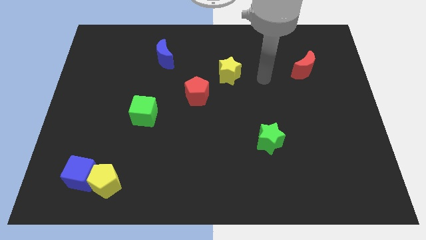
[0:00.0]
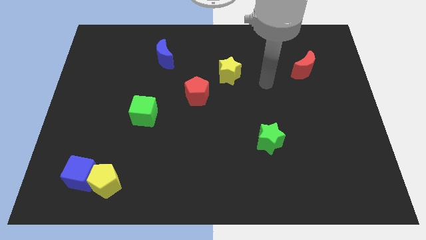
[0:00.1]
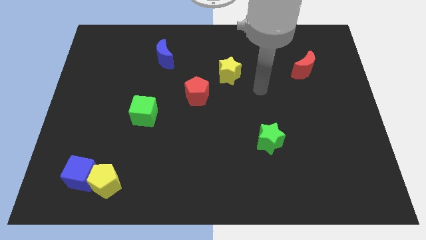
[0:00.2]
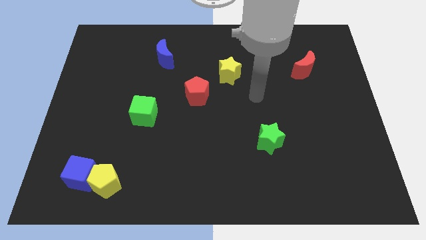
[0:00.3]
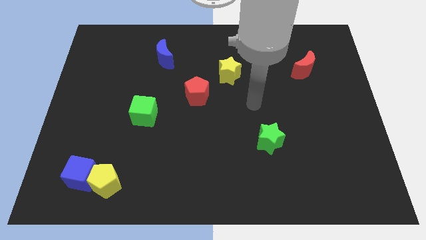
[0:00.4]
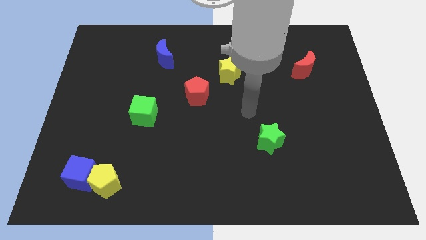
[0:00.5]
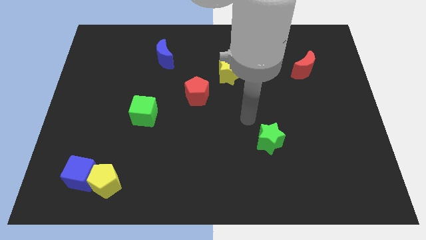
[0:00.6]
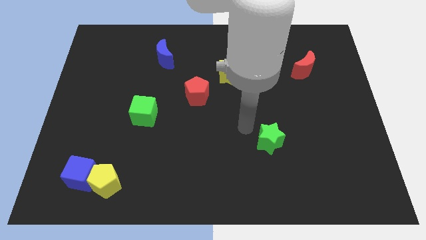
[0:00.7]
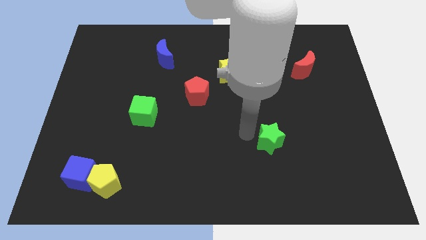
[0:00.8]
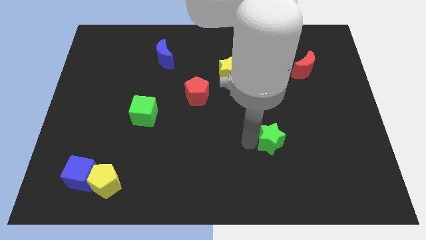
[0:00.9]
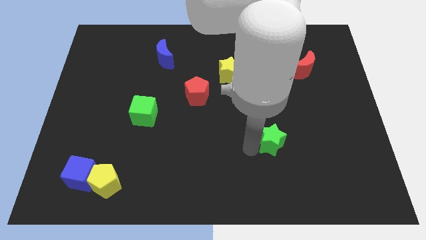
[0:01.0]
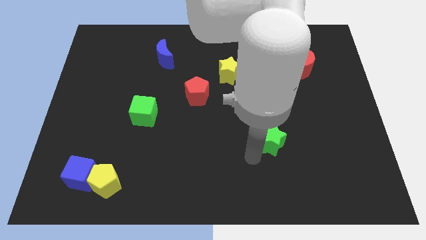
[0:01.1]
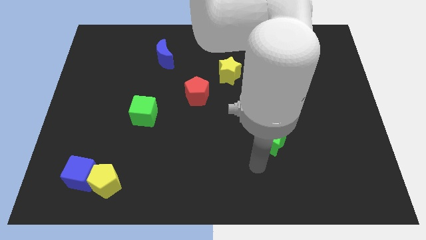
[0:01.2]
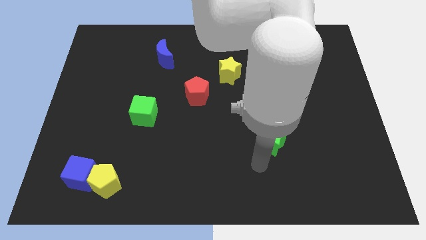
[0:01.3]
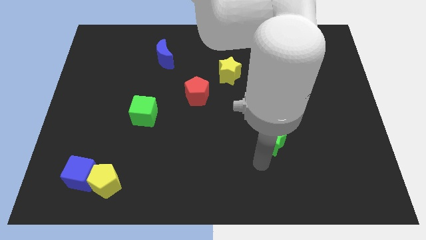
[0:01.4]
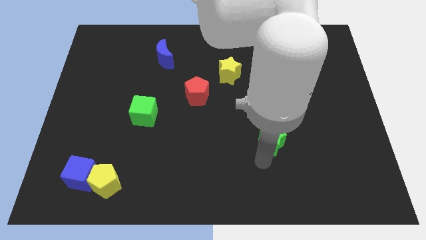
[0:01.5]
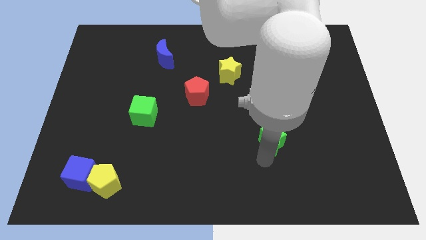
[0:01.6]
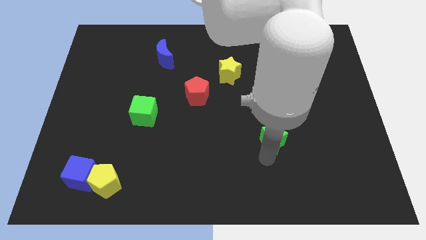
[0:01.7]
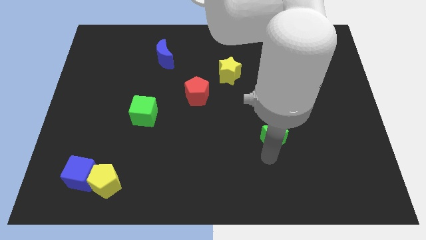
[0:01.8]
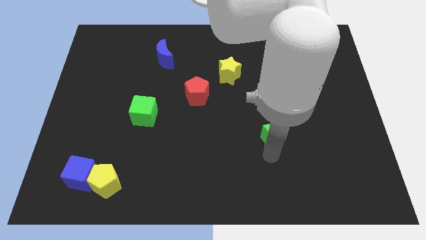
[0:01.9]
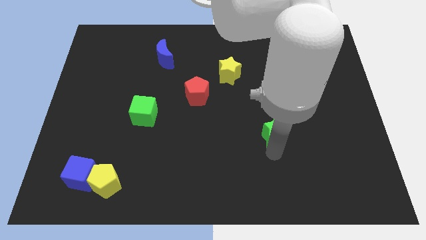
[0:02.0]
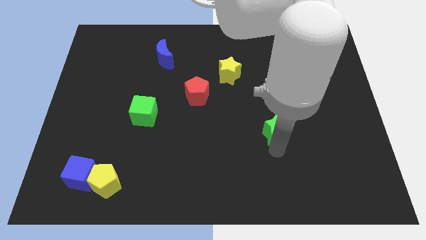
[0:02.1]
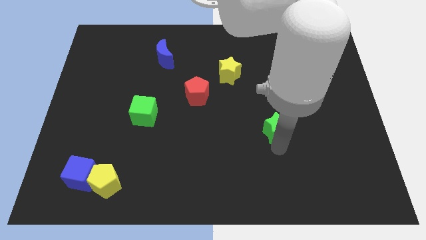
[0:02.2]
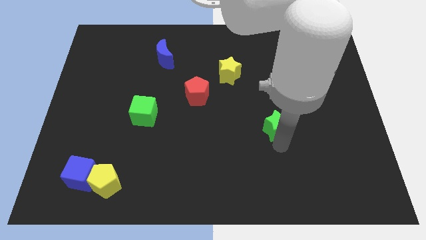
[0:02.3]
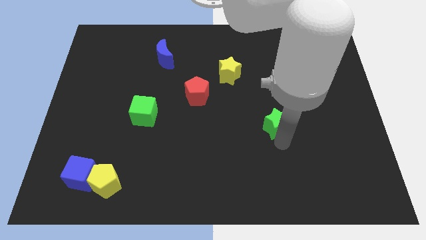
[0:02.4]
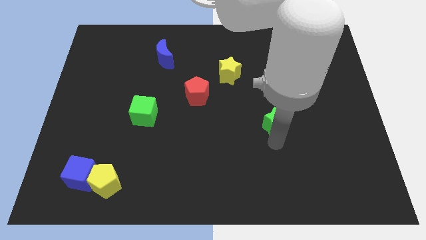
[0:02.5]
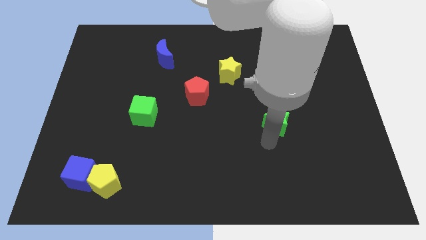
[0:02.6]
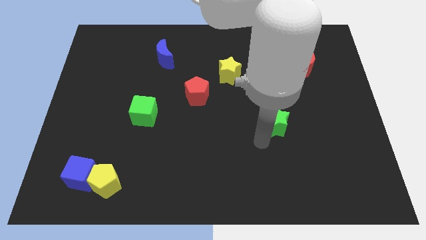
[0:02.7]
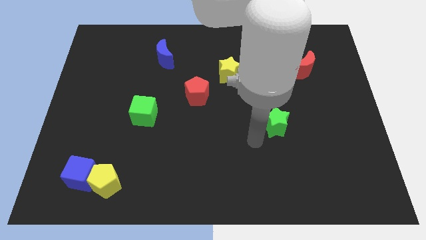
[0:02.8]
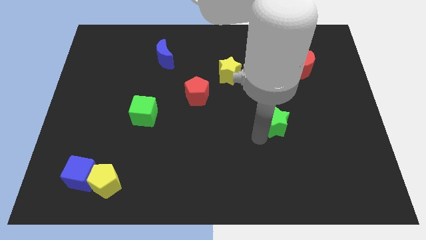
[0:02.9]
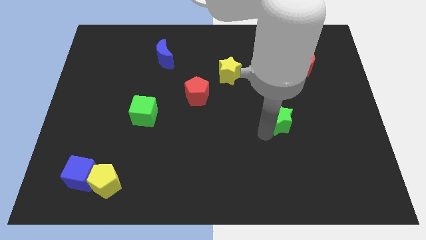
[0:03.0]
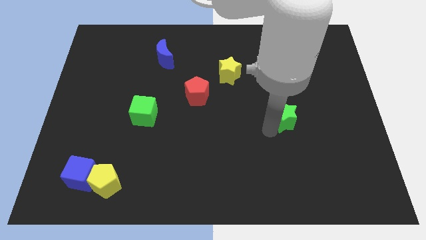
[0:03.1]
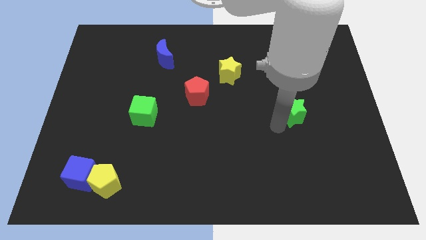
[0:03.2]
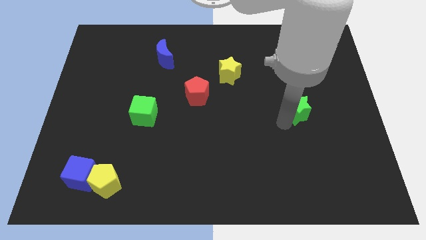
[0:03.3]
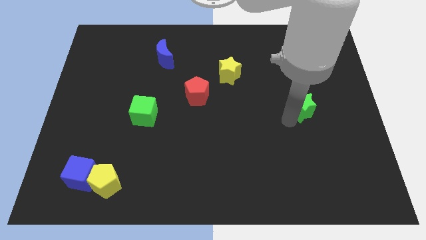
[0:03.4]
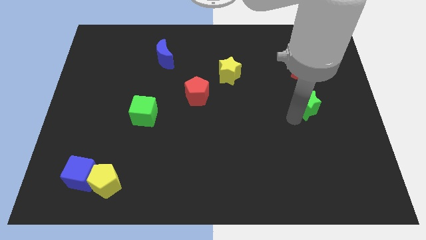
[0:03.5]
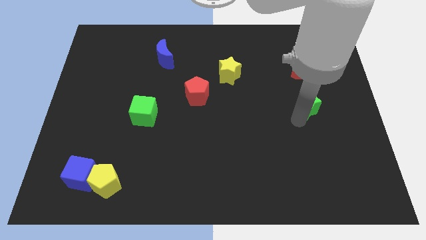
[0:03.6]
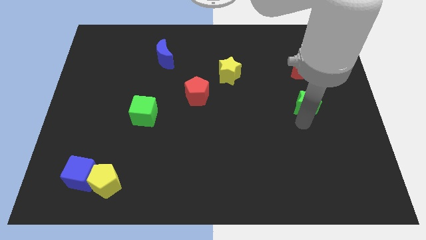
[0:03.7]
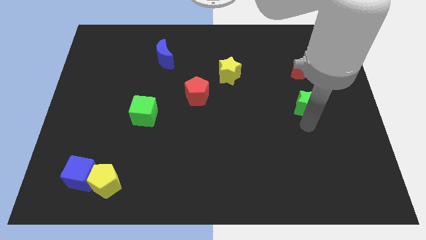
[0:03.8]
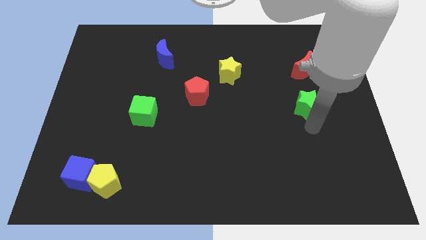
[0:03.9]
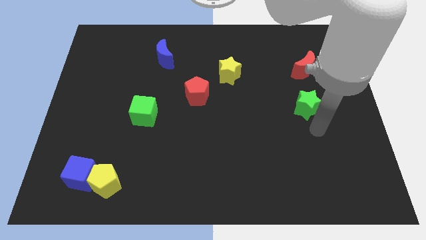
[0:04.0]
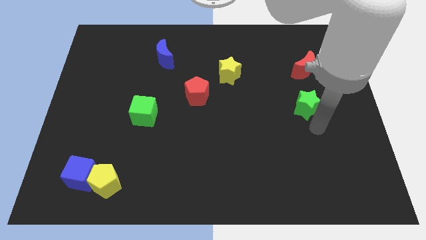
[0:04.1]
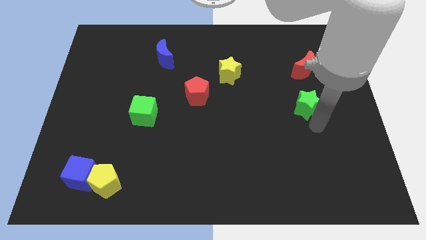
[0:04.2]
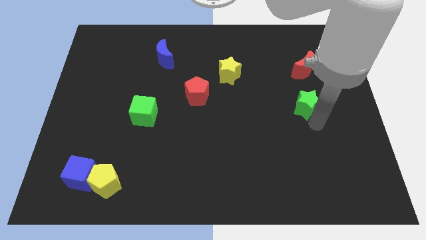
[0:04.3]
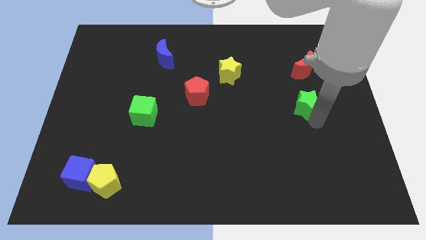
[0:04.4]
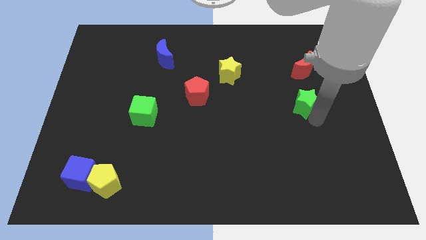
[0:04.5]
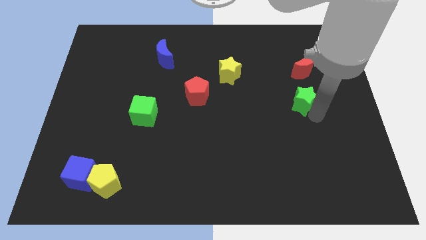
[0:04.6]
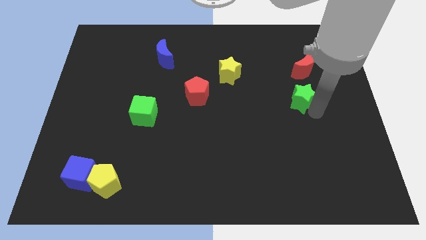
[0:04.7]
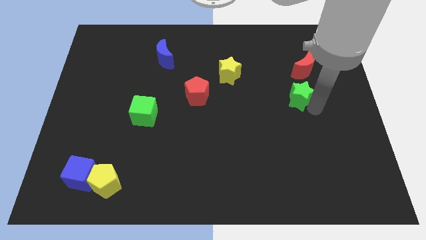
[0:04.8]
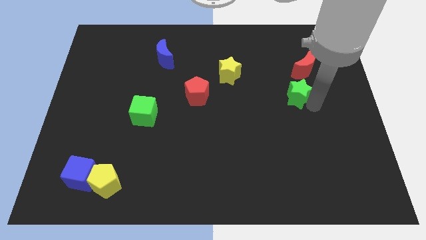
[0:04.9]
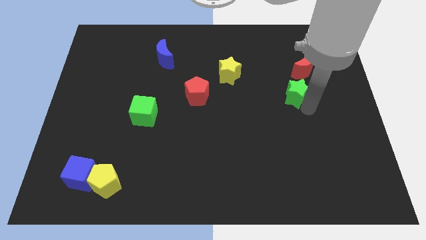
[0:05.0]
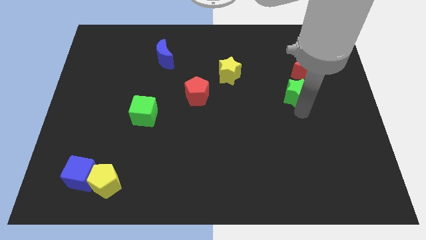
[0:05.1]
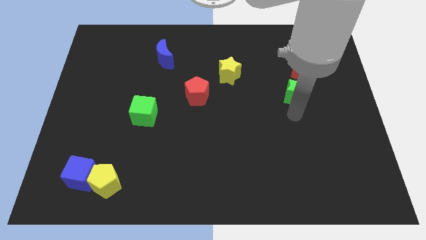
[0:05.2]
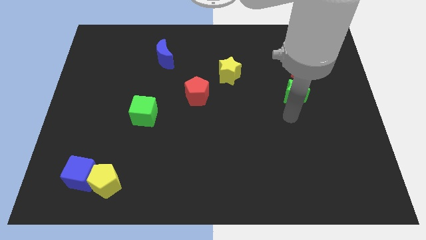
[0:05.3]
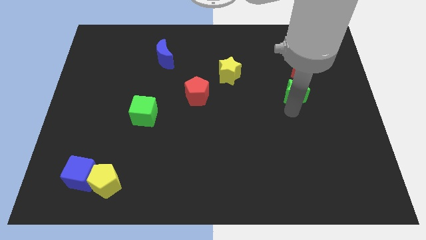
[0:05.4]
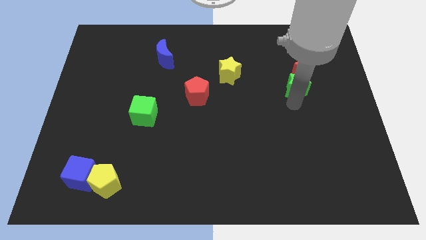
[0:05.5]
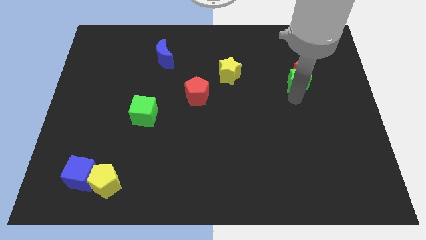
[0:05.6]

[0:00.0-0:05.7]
slide the green star to the red moon

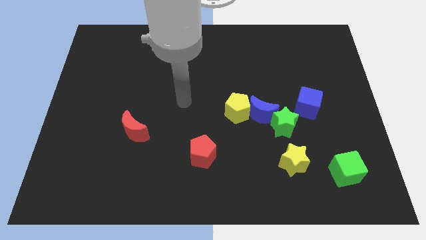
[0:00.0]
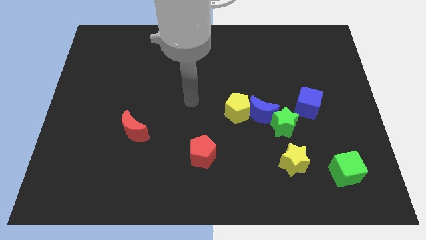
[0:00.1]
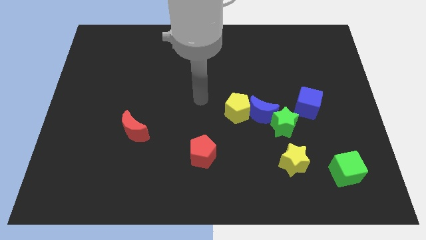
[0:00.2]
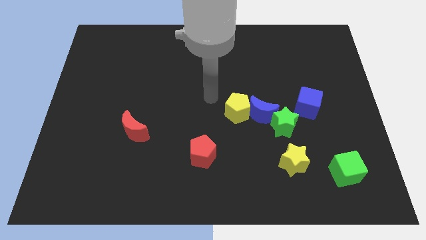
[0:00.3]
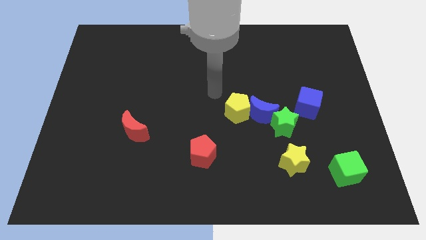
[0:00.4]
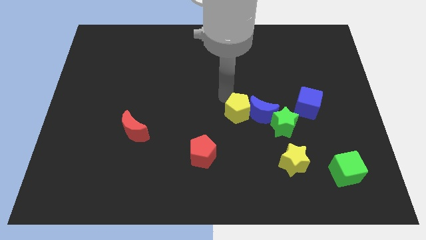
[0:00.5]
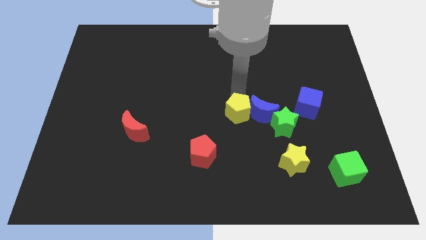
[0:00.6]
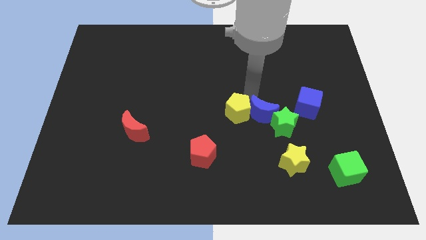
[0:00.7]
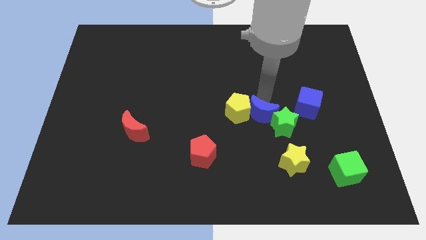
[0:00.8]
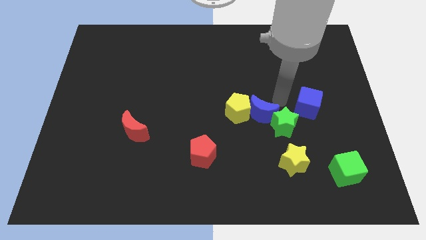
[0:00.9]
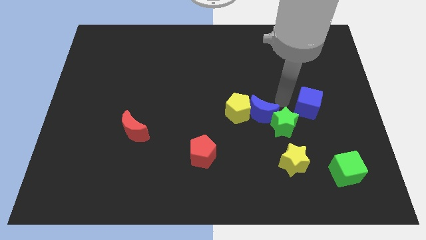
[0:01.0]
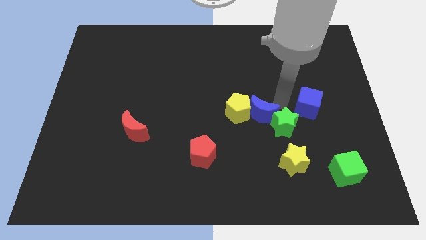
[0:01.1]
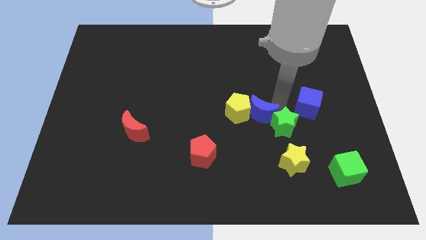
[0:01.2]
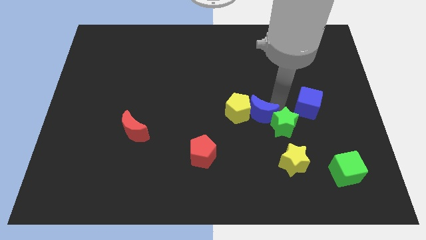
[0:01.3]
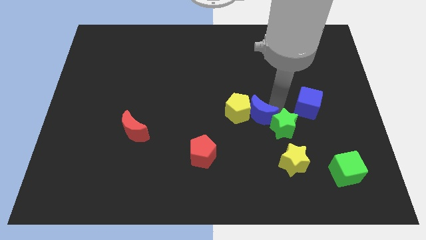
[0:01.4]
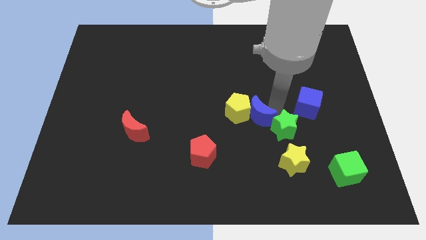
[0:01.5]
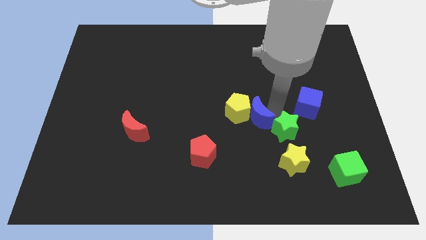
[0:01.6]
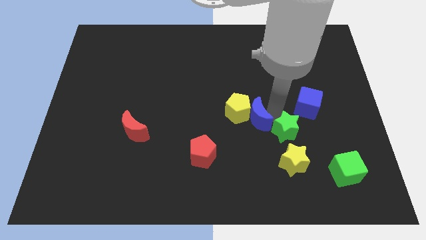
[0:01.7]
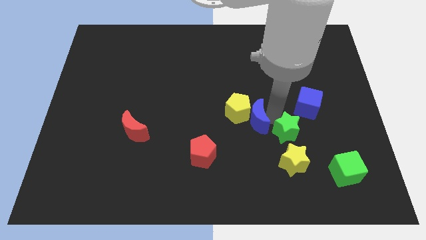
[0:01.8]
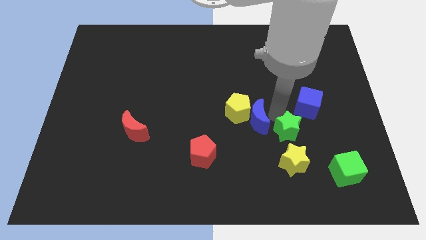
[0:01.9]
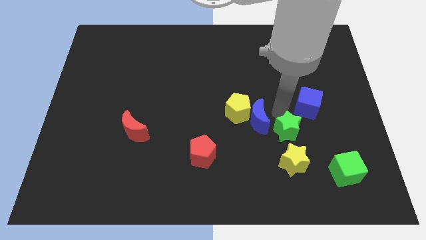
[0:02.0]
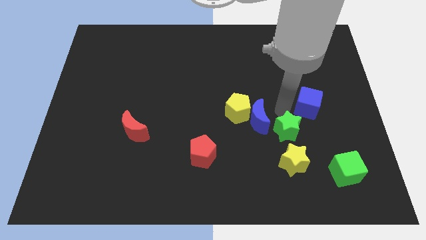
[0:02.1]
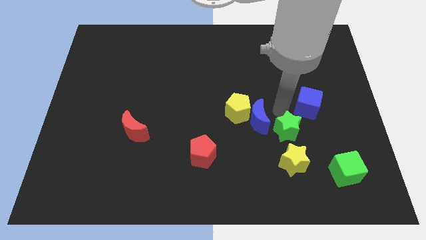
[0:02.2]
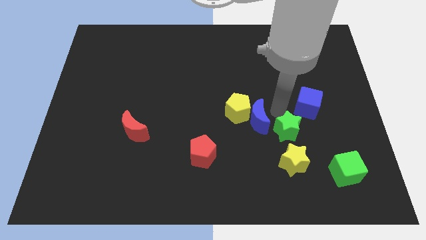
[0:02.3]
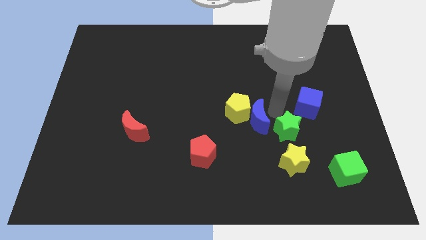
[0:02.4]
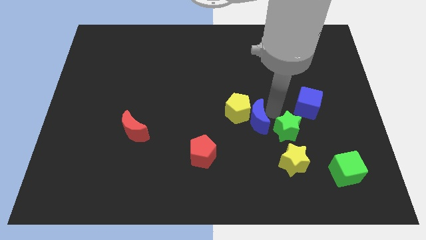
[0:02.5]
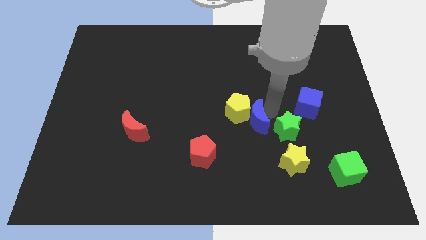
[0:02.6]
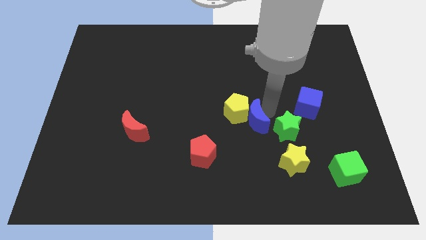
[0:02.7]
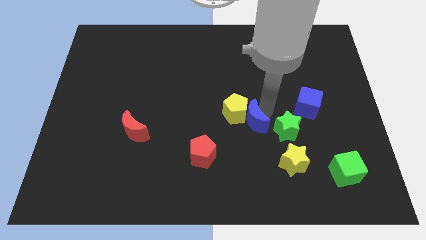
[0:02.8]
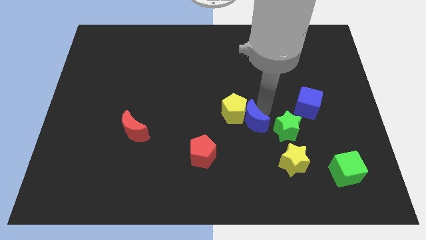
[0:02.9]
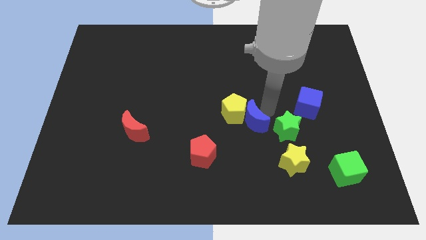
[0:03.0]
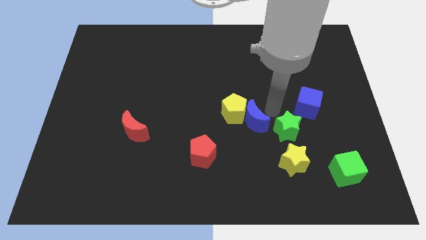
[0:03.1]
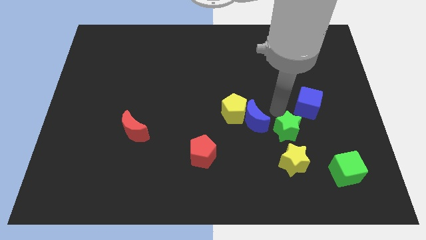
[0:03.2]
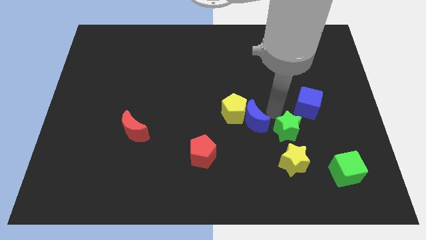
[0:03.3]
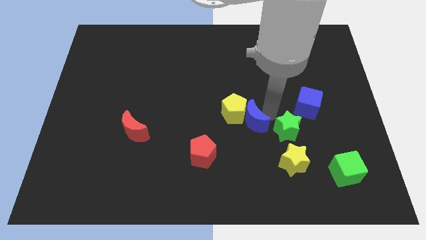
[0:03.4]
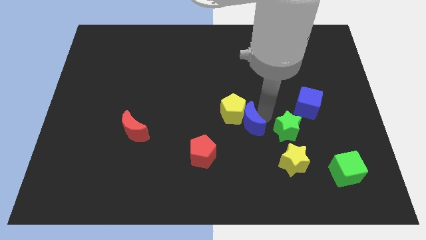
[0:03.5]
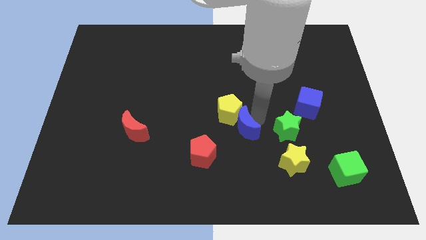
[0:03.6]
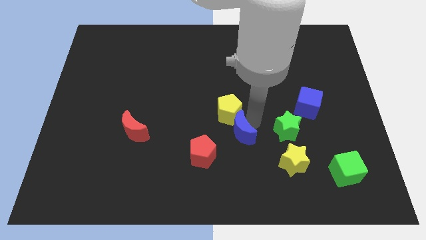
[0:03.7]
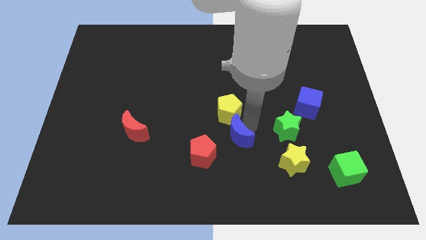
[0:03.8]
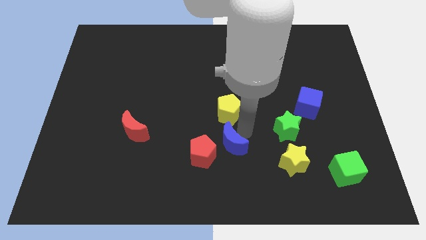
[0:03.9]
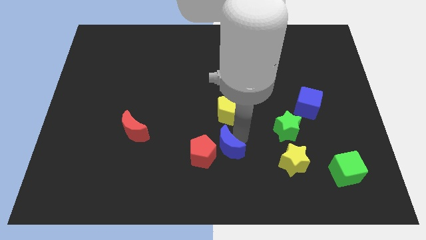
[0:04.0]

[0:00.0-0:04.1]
put the blue moon next to the red pentagon
